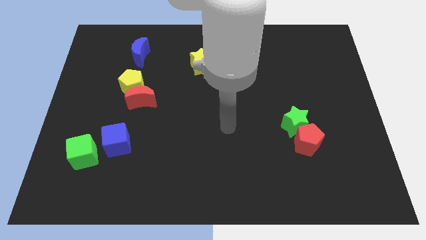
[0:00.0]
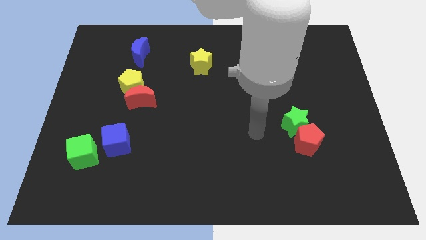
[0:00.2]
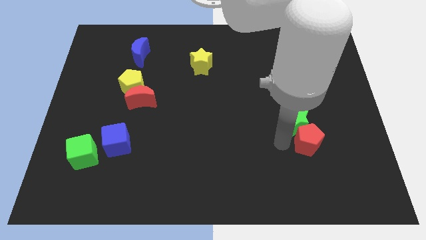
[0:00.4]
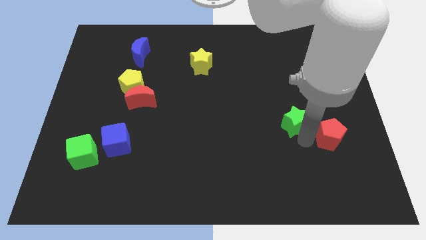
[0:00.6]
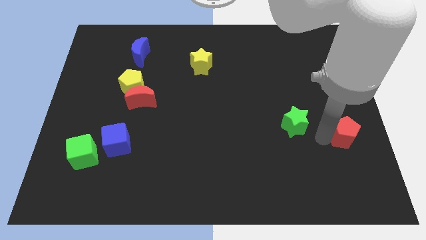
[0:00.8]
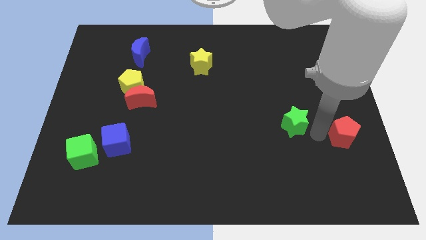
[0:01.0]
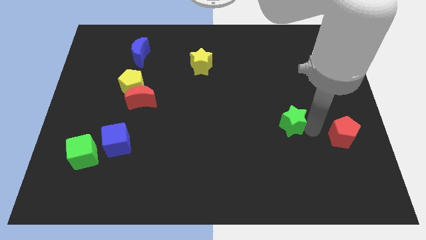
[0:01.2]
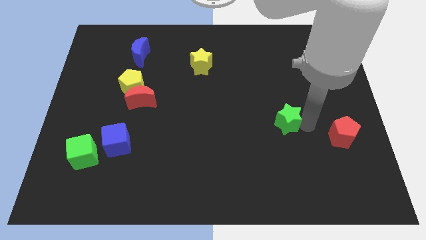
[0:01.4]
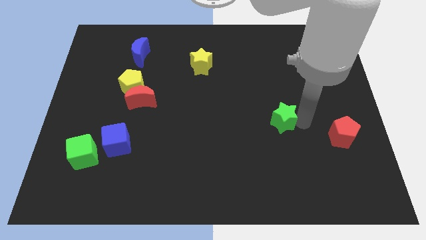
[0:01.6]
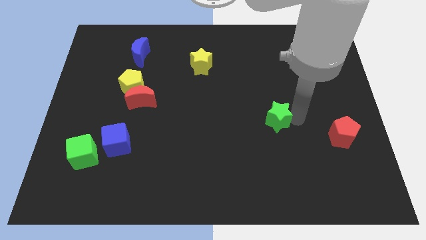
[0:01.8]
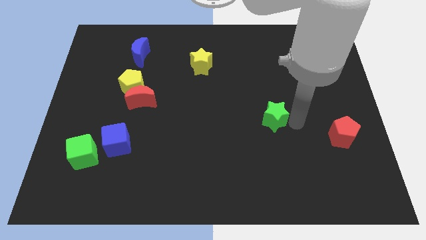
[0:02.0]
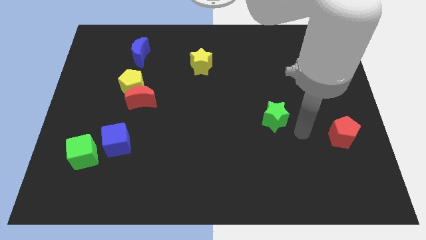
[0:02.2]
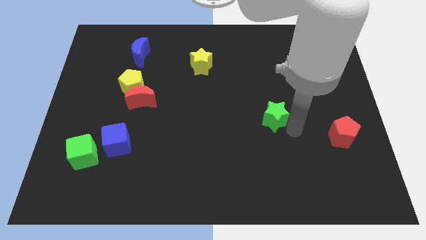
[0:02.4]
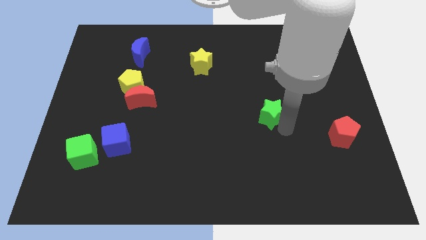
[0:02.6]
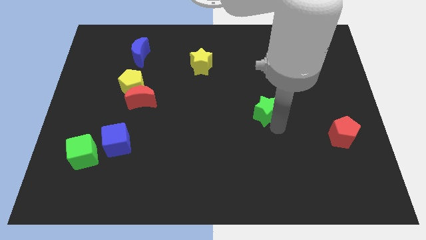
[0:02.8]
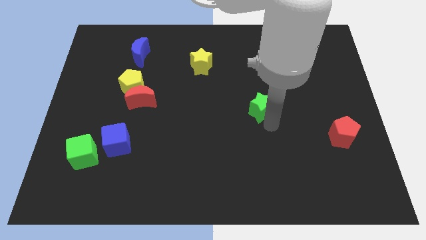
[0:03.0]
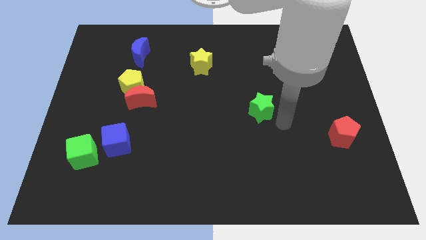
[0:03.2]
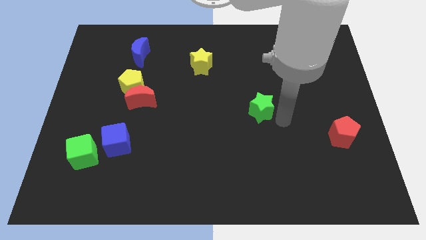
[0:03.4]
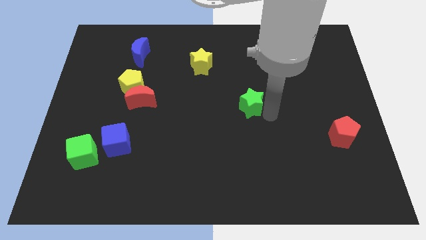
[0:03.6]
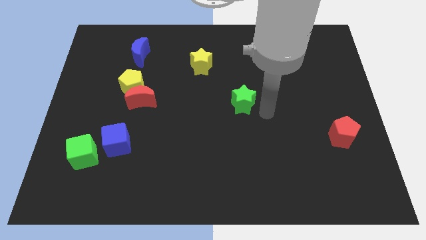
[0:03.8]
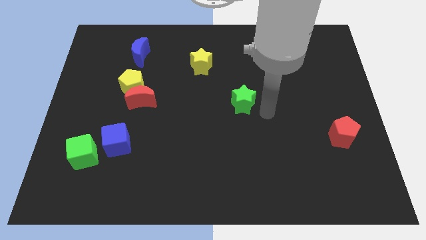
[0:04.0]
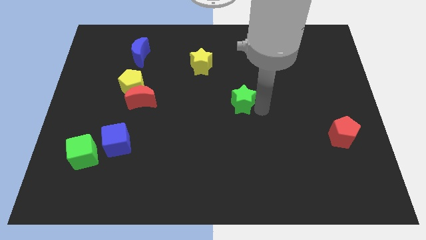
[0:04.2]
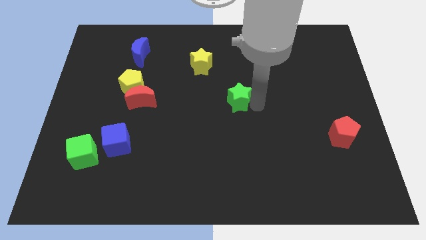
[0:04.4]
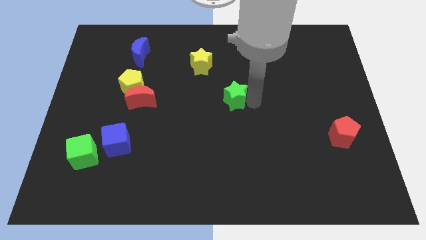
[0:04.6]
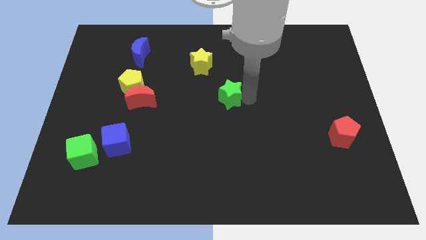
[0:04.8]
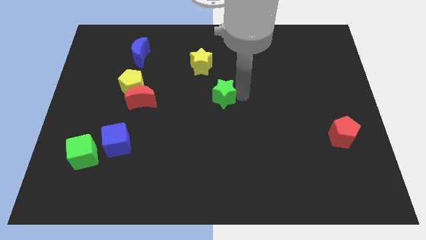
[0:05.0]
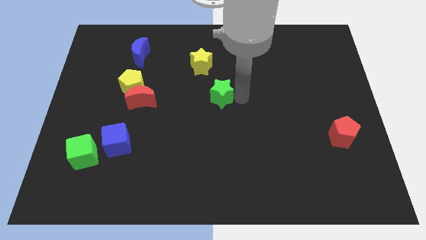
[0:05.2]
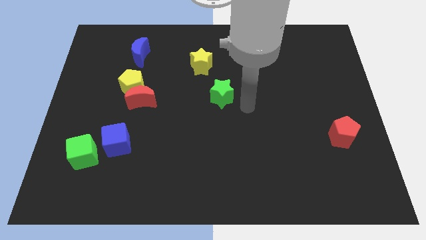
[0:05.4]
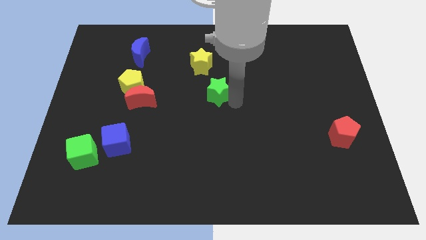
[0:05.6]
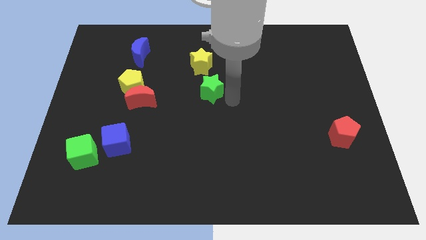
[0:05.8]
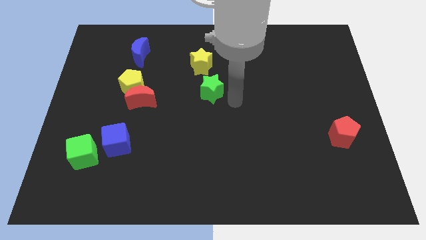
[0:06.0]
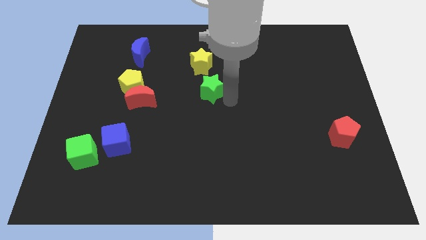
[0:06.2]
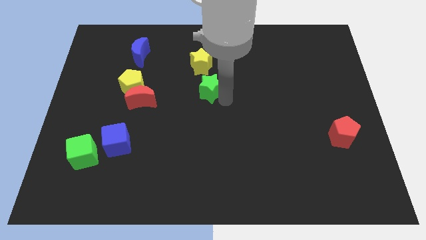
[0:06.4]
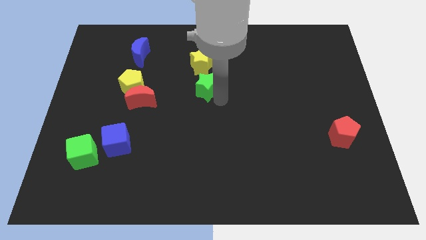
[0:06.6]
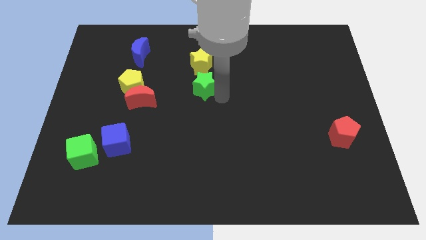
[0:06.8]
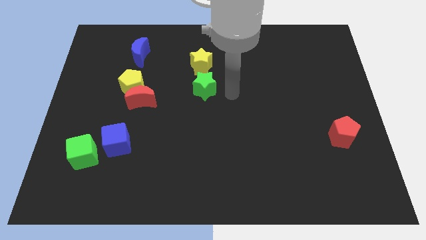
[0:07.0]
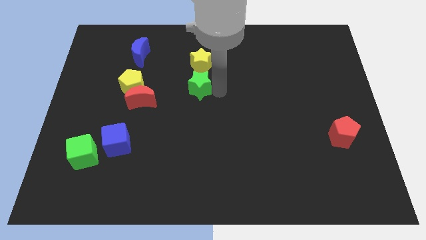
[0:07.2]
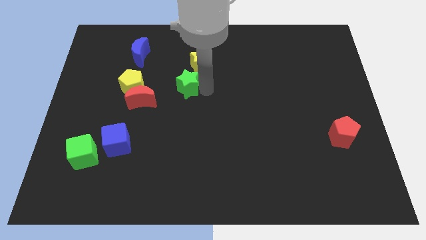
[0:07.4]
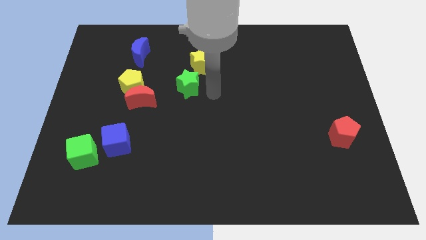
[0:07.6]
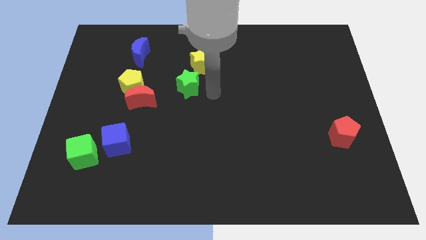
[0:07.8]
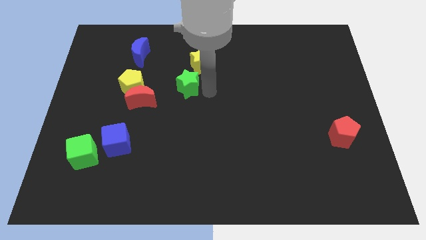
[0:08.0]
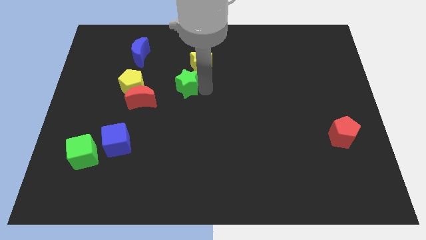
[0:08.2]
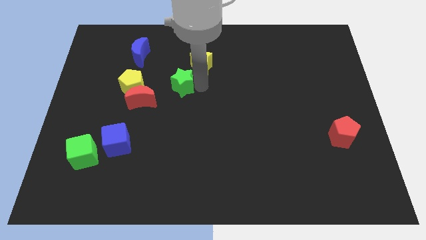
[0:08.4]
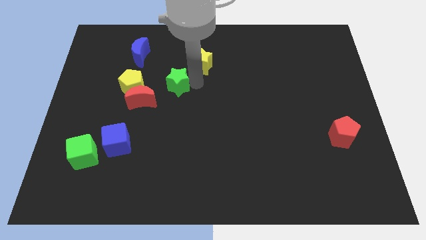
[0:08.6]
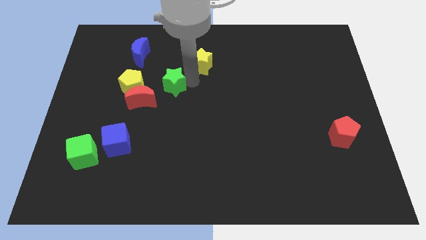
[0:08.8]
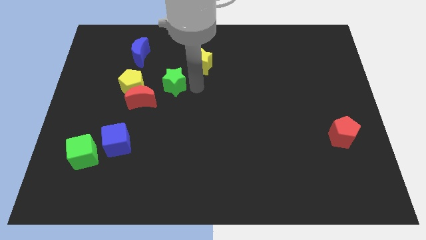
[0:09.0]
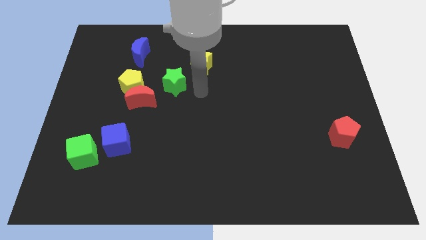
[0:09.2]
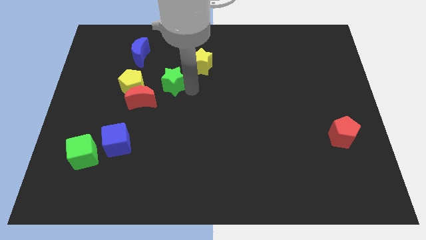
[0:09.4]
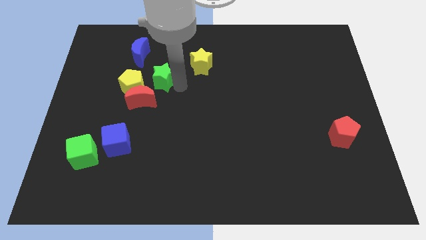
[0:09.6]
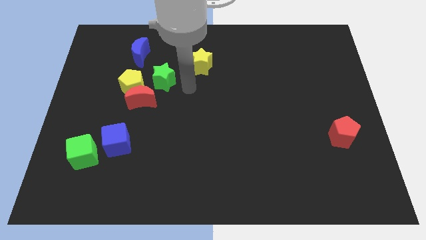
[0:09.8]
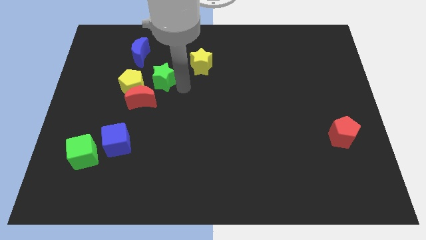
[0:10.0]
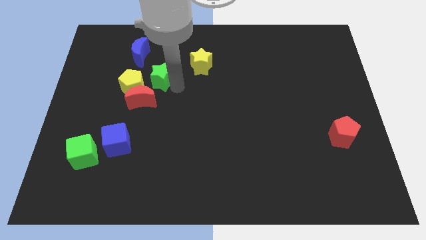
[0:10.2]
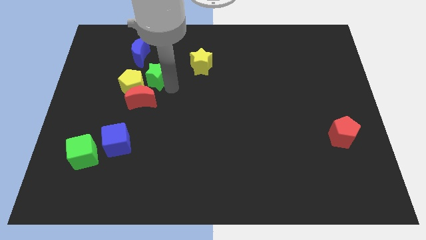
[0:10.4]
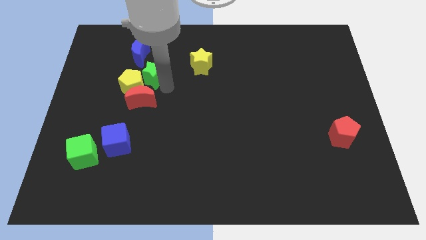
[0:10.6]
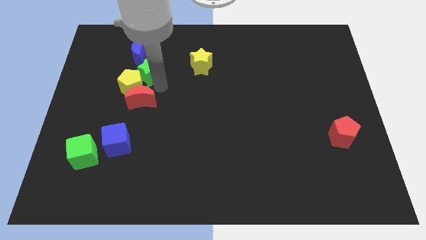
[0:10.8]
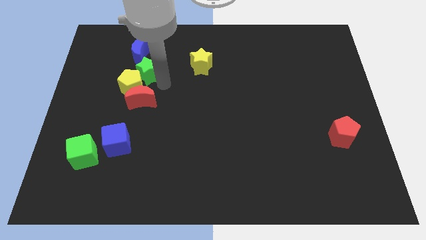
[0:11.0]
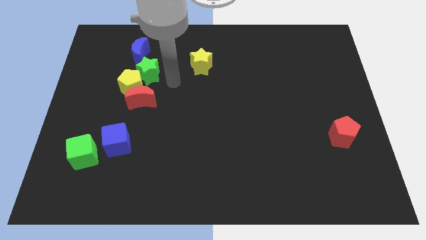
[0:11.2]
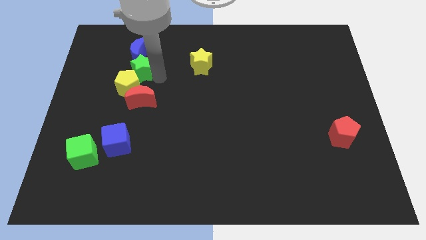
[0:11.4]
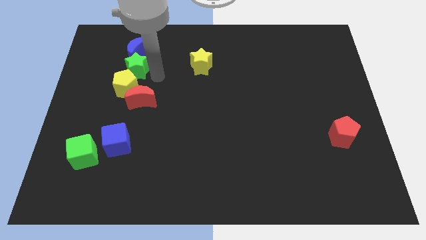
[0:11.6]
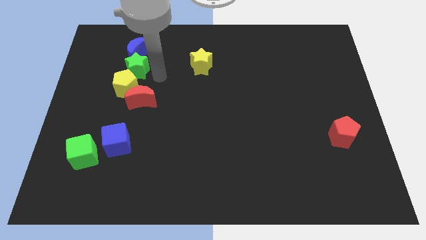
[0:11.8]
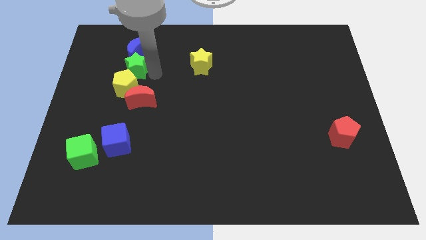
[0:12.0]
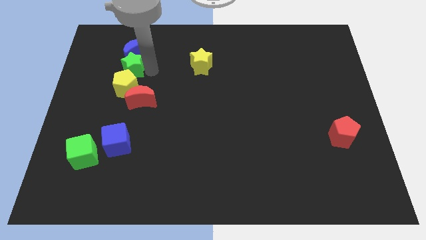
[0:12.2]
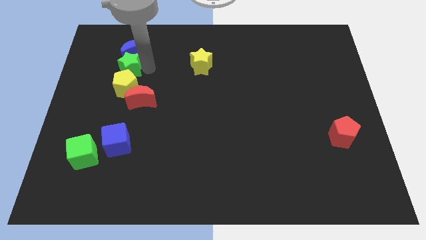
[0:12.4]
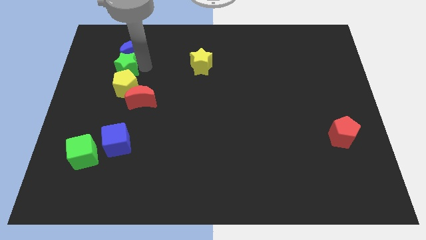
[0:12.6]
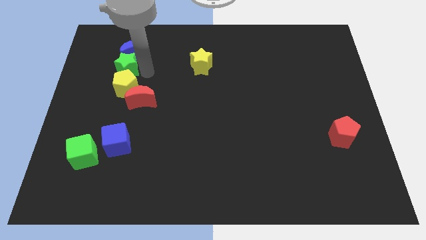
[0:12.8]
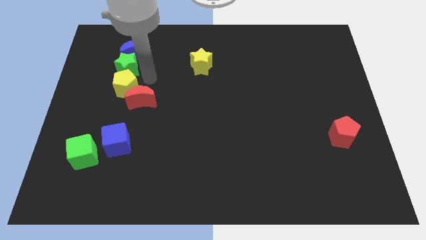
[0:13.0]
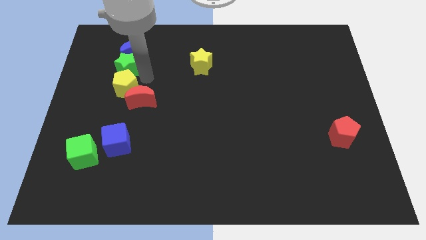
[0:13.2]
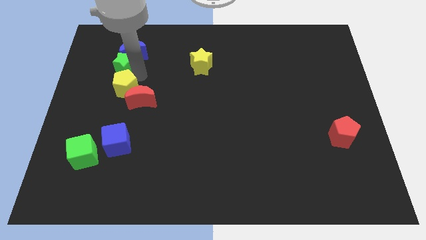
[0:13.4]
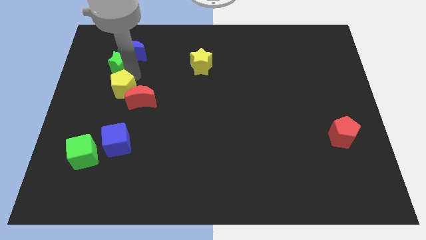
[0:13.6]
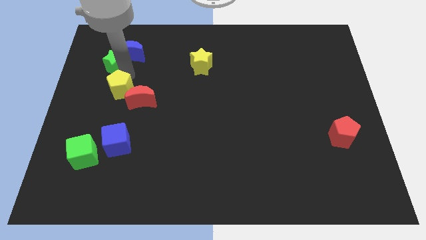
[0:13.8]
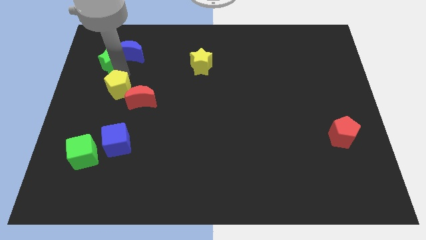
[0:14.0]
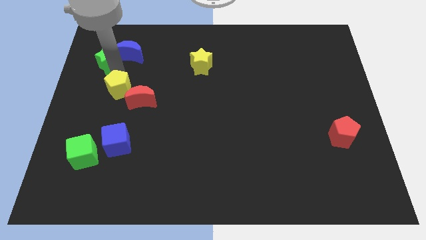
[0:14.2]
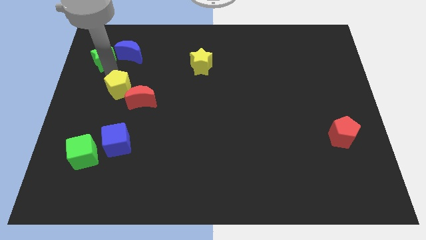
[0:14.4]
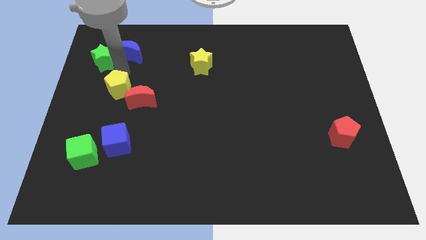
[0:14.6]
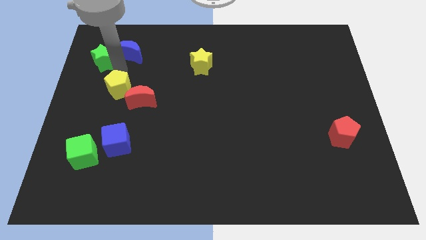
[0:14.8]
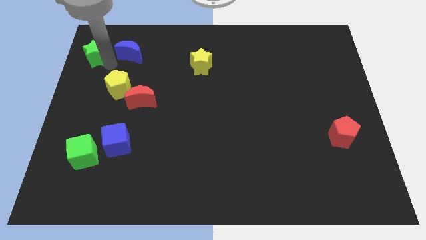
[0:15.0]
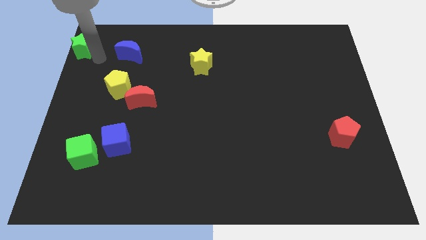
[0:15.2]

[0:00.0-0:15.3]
move the green star to the upper left corner
